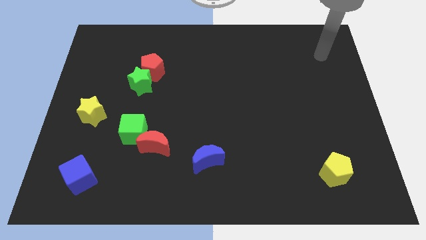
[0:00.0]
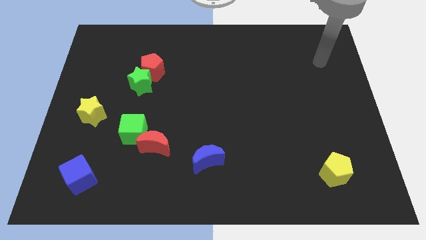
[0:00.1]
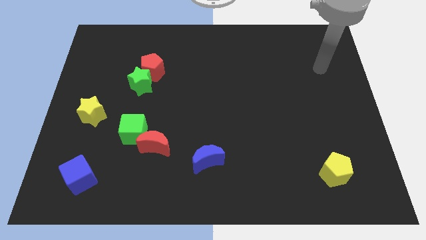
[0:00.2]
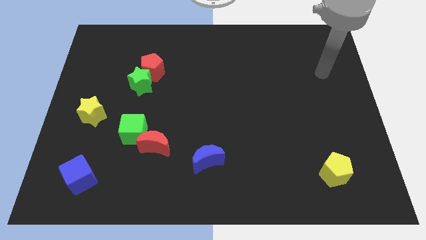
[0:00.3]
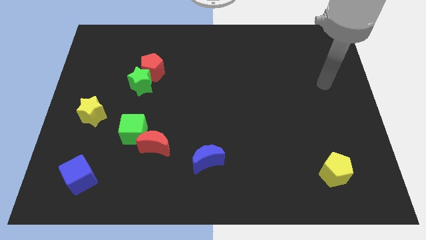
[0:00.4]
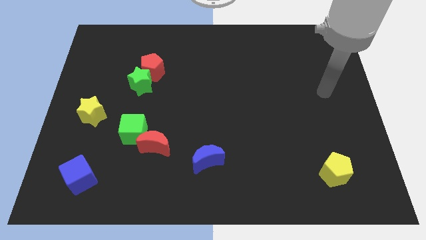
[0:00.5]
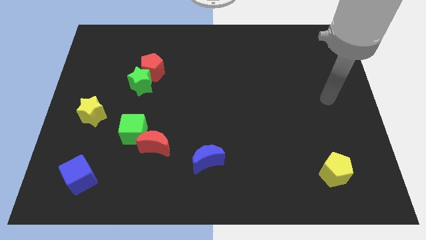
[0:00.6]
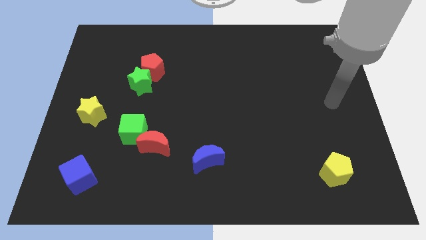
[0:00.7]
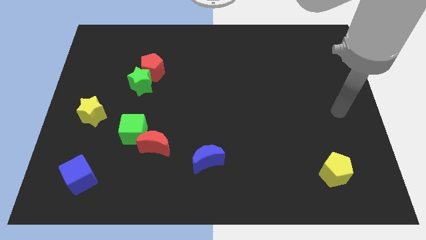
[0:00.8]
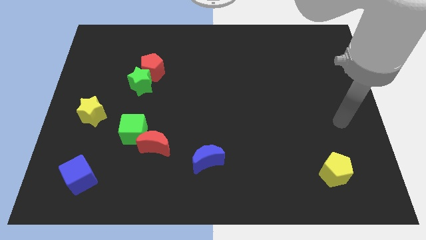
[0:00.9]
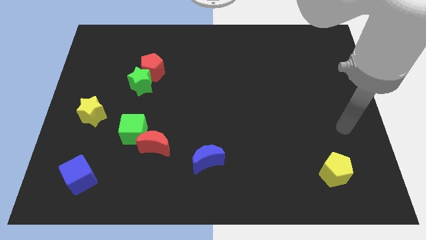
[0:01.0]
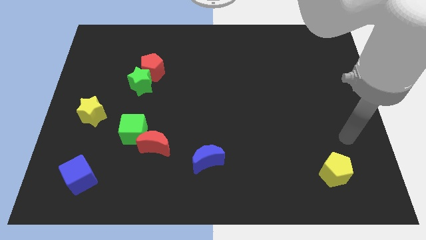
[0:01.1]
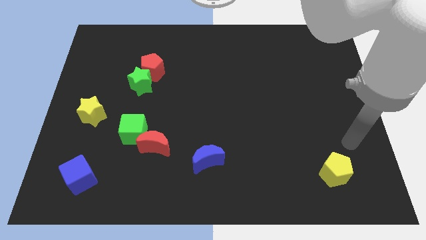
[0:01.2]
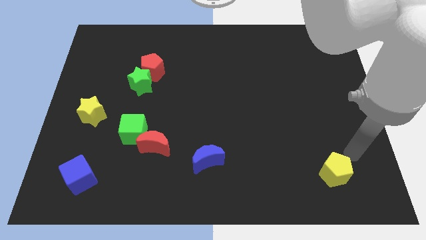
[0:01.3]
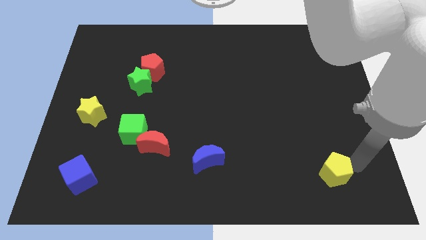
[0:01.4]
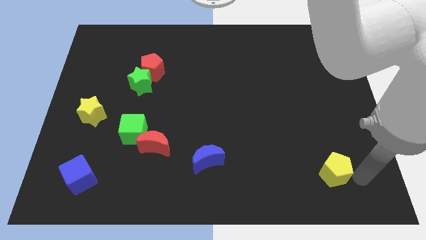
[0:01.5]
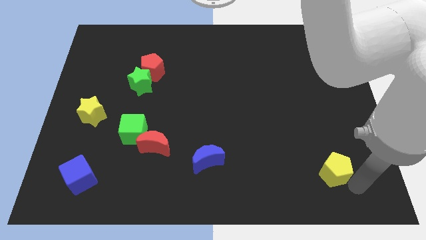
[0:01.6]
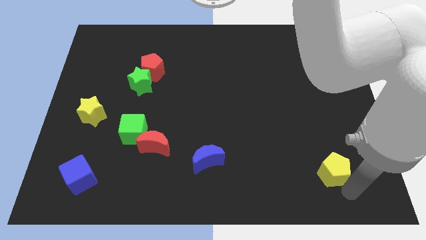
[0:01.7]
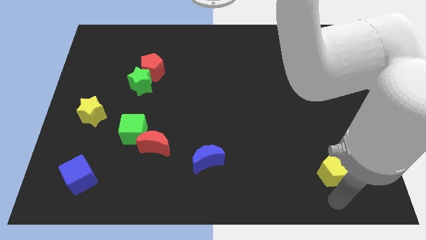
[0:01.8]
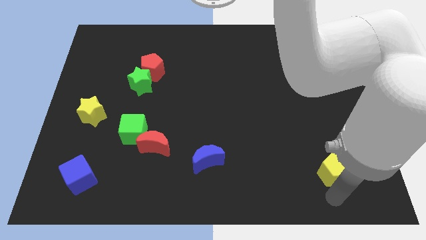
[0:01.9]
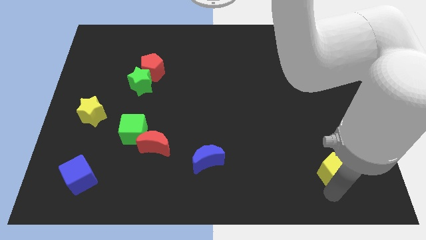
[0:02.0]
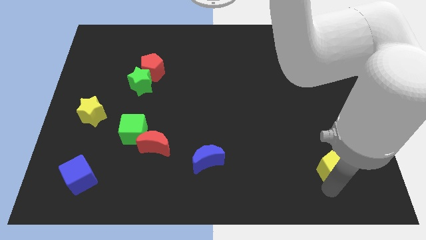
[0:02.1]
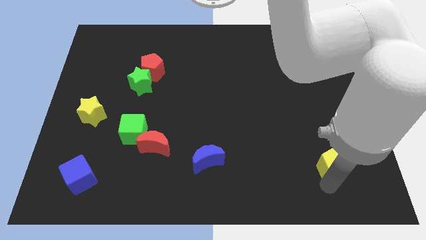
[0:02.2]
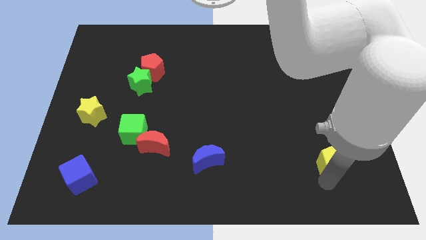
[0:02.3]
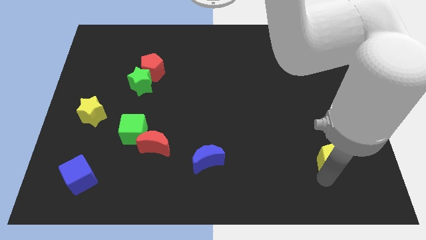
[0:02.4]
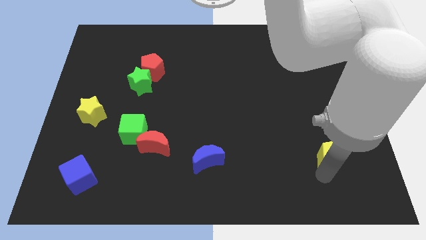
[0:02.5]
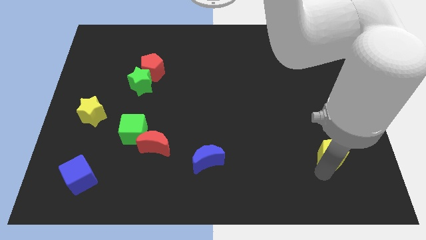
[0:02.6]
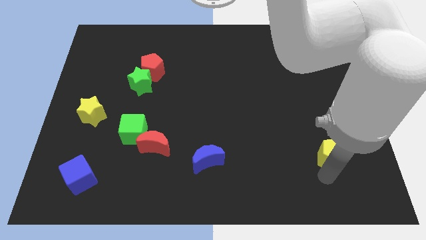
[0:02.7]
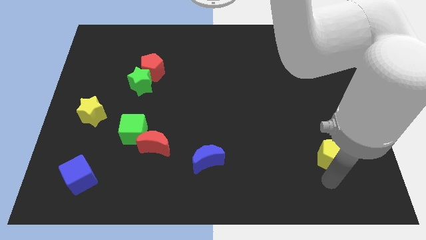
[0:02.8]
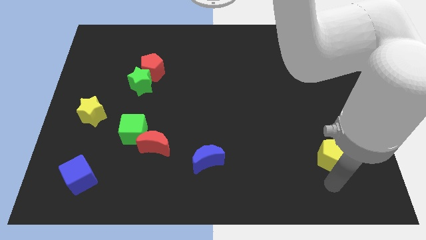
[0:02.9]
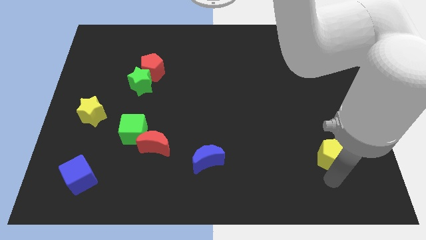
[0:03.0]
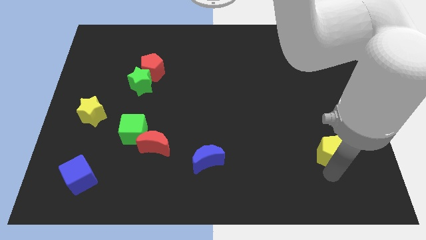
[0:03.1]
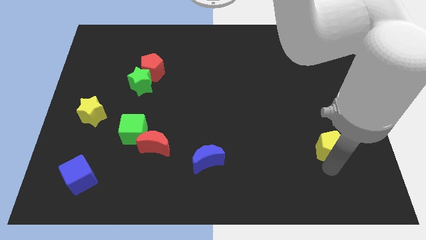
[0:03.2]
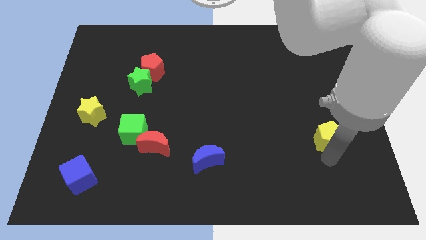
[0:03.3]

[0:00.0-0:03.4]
move the yellow pentagon upwards a little bit

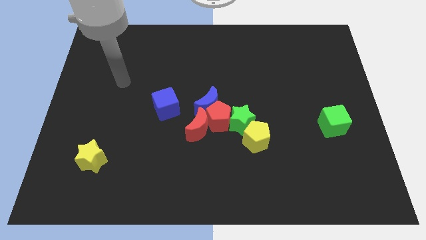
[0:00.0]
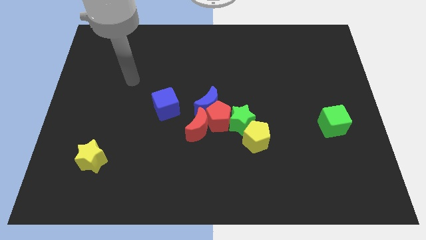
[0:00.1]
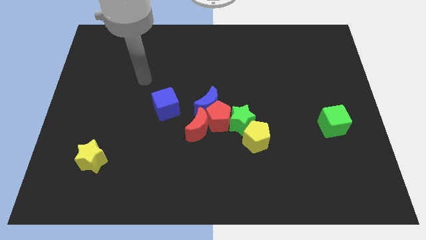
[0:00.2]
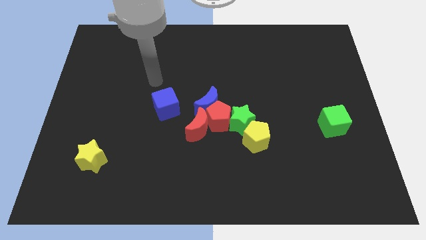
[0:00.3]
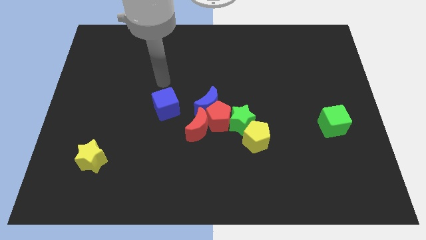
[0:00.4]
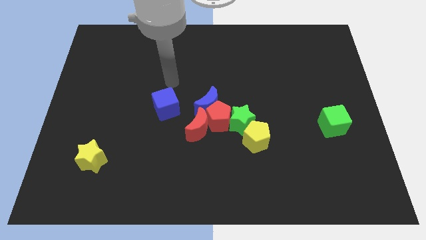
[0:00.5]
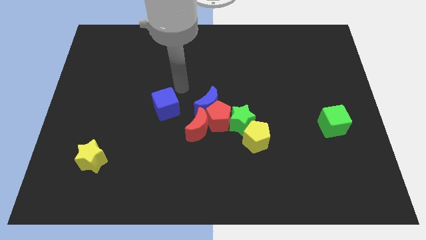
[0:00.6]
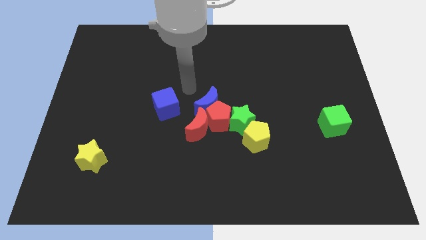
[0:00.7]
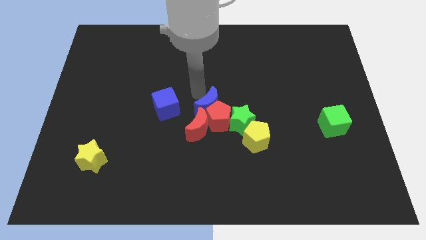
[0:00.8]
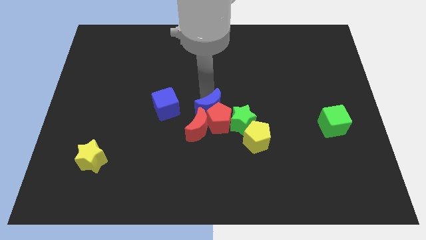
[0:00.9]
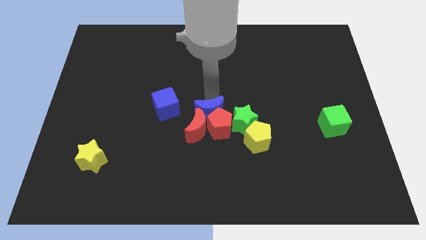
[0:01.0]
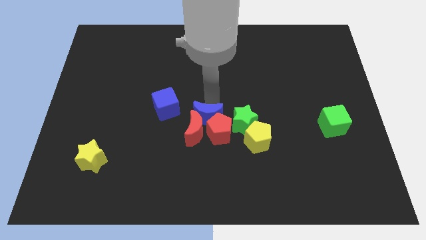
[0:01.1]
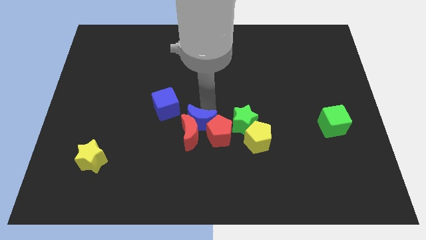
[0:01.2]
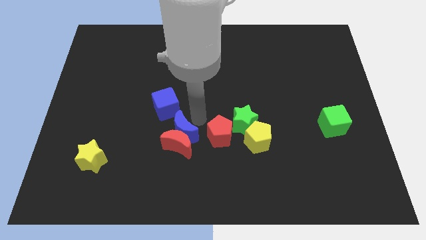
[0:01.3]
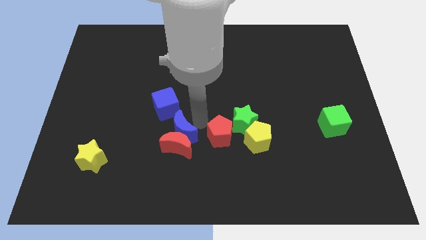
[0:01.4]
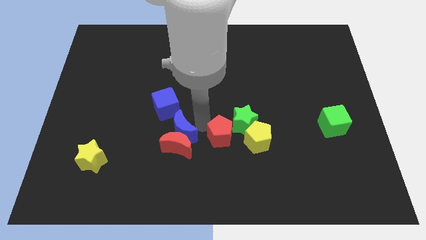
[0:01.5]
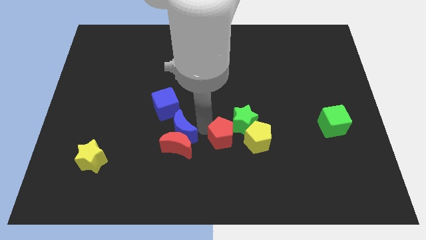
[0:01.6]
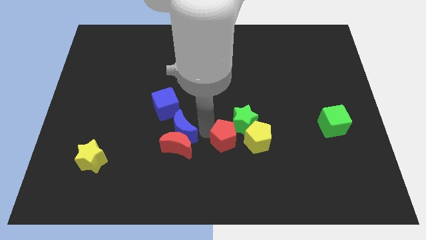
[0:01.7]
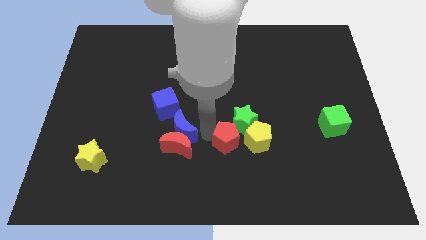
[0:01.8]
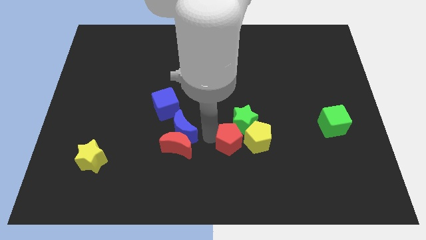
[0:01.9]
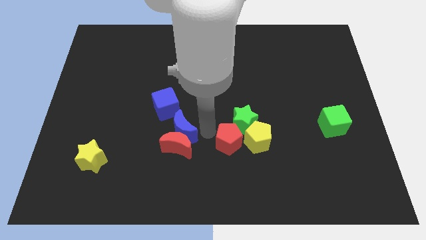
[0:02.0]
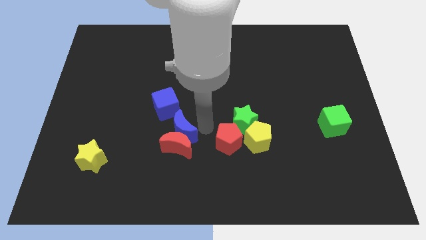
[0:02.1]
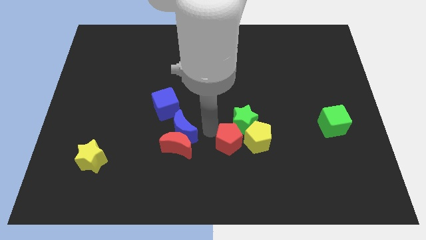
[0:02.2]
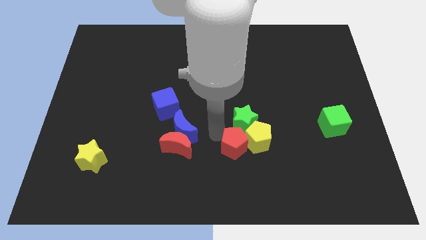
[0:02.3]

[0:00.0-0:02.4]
move the red pentagon slightly down and right diagonally

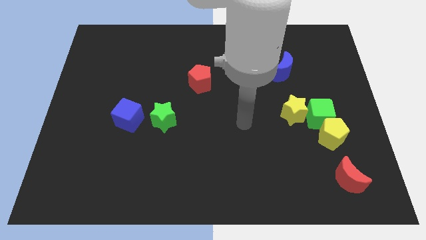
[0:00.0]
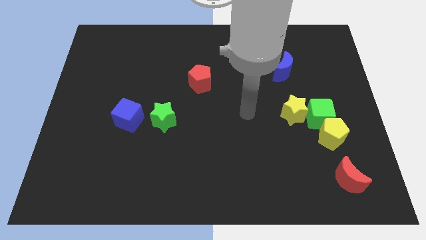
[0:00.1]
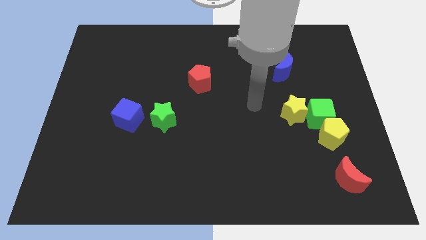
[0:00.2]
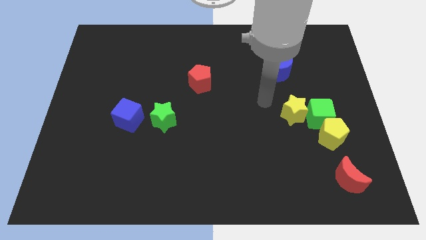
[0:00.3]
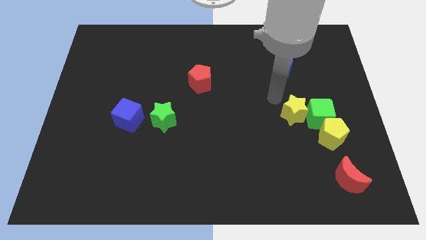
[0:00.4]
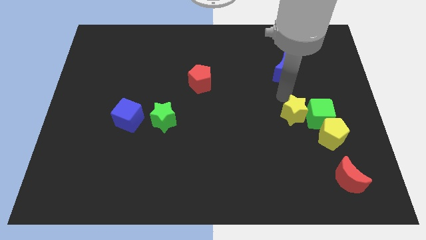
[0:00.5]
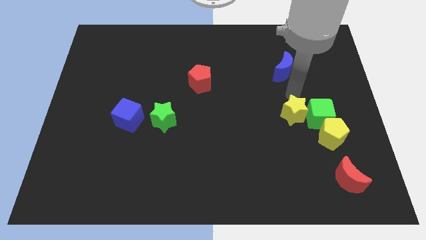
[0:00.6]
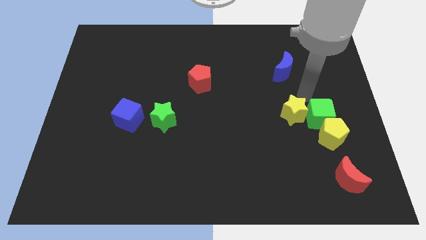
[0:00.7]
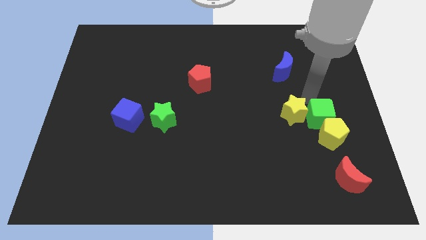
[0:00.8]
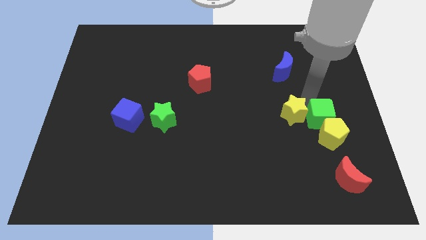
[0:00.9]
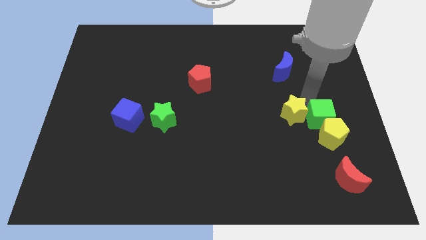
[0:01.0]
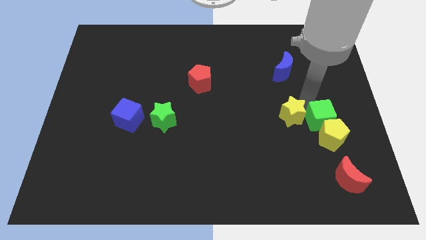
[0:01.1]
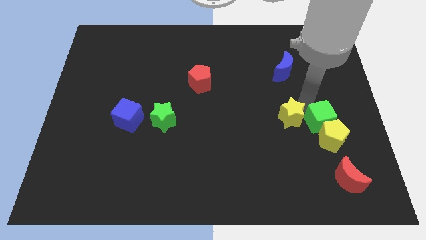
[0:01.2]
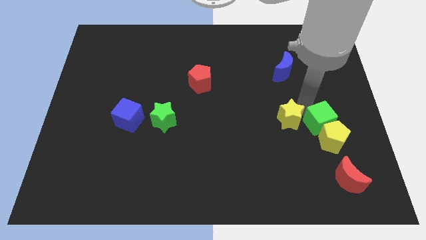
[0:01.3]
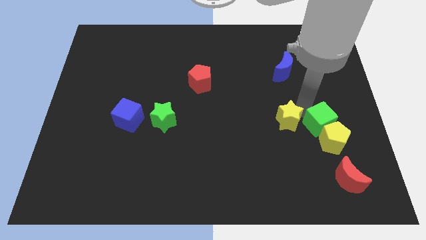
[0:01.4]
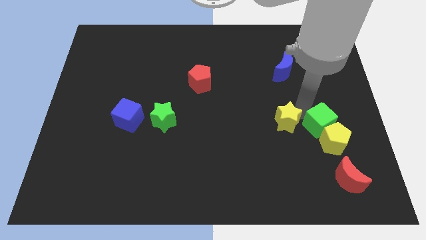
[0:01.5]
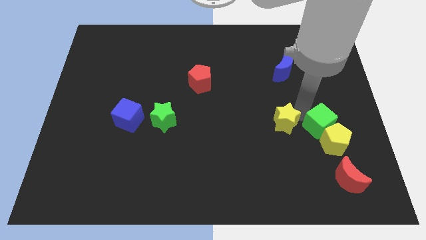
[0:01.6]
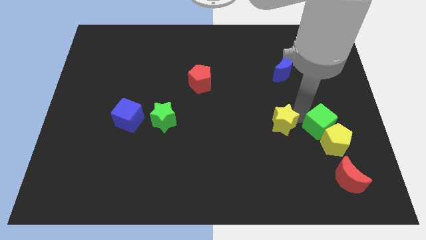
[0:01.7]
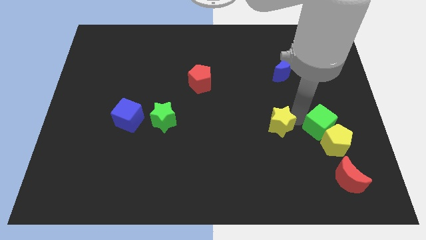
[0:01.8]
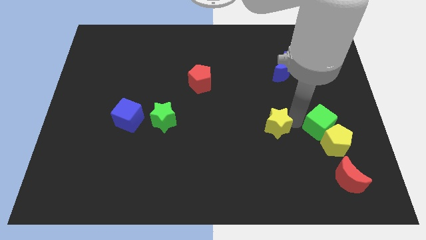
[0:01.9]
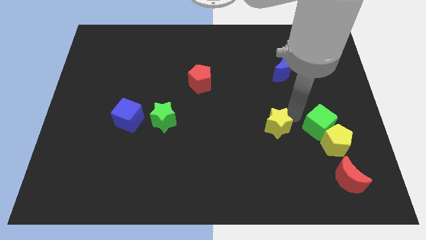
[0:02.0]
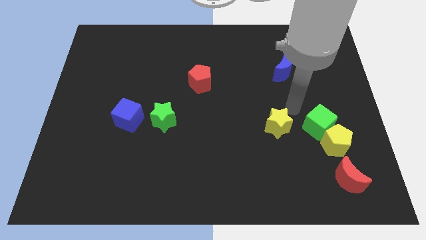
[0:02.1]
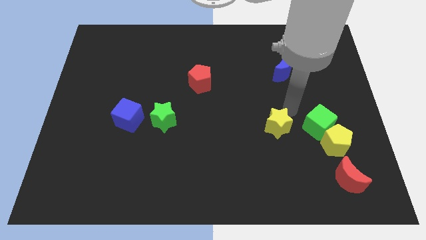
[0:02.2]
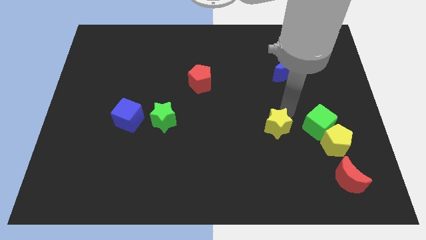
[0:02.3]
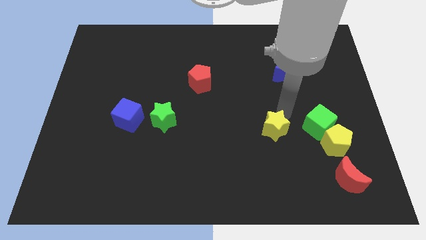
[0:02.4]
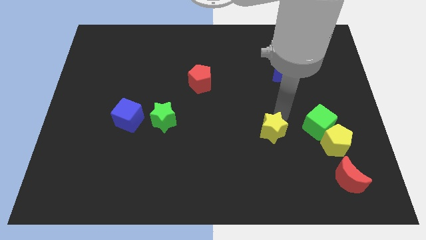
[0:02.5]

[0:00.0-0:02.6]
slightly move the yellow star down and left diagonally
